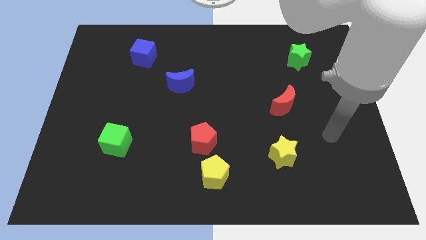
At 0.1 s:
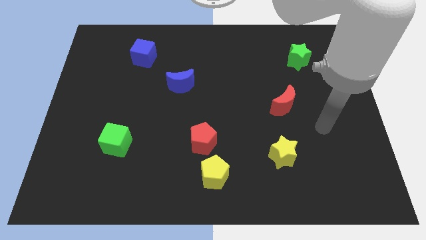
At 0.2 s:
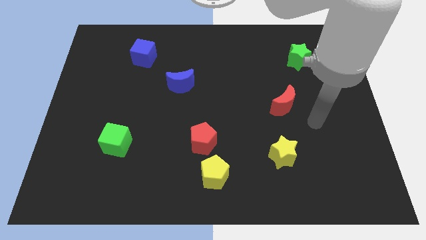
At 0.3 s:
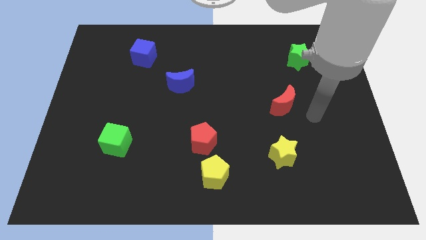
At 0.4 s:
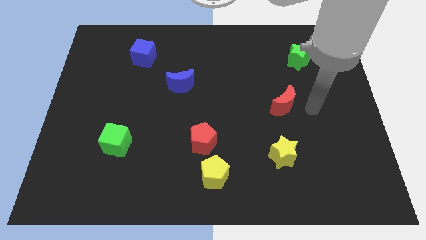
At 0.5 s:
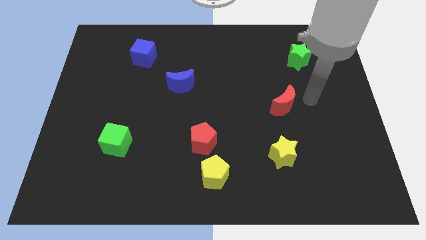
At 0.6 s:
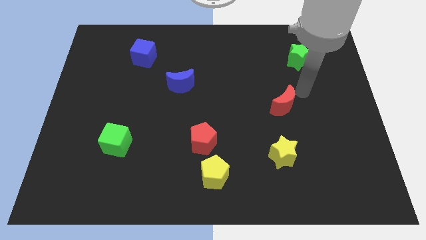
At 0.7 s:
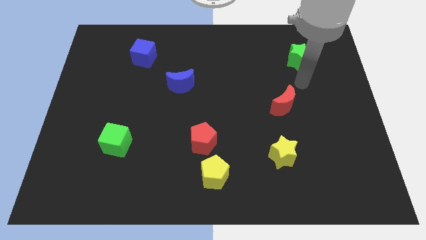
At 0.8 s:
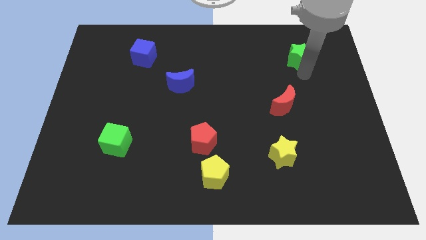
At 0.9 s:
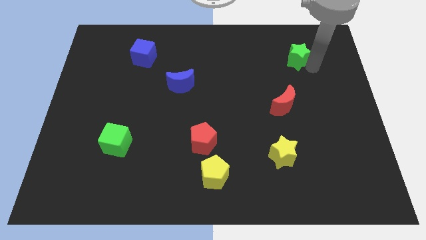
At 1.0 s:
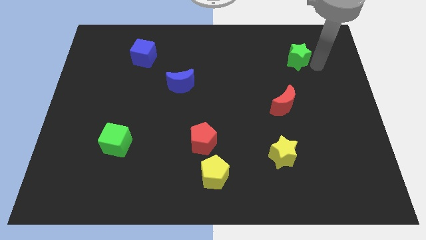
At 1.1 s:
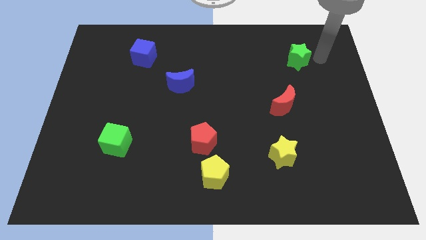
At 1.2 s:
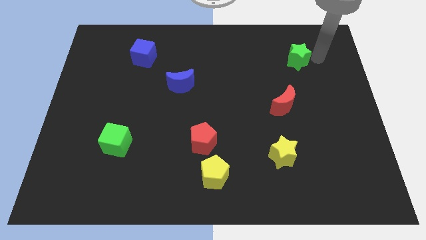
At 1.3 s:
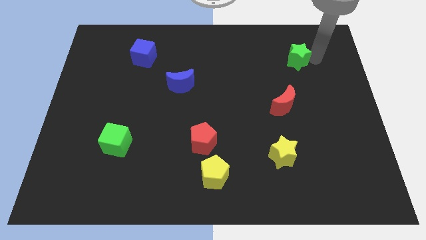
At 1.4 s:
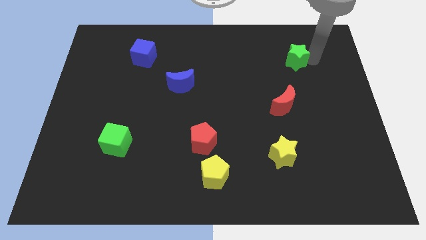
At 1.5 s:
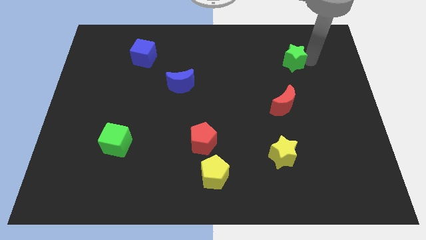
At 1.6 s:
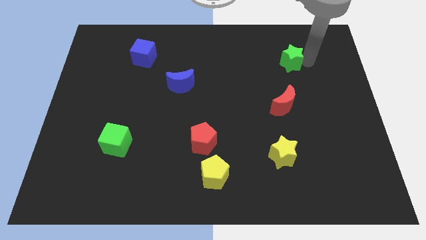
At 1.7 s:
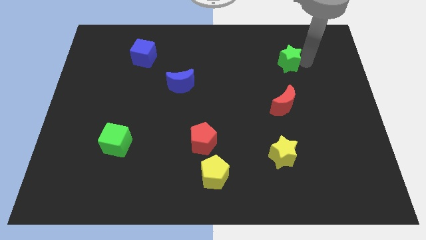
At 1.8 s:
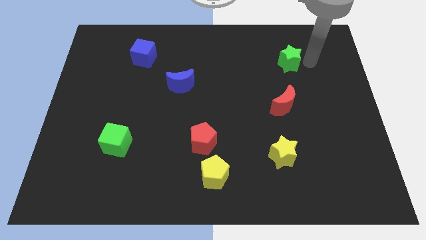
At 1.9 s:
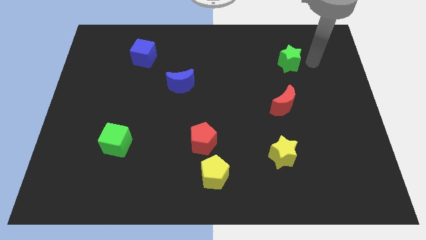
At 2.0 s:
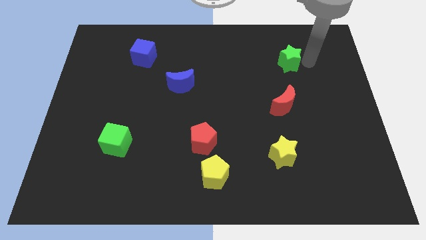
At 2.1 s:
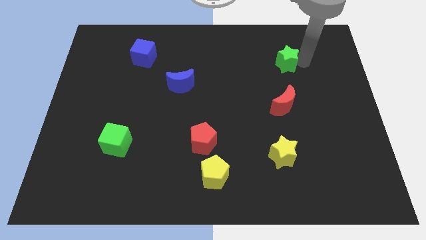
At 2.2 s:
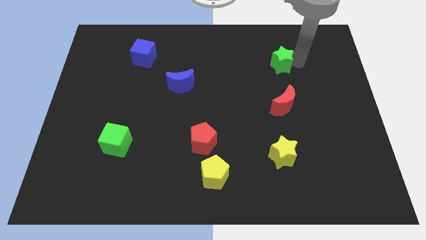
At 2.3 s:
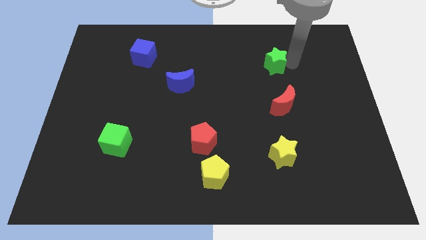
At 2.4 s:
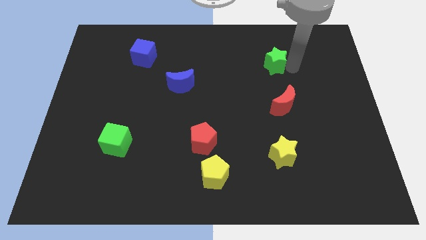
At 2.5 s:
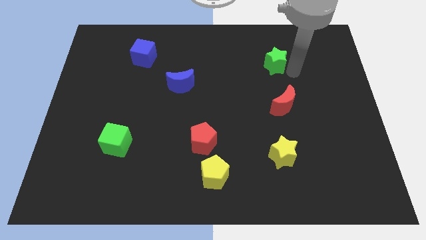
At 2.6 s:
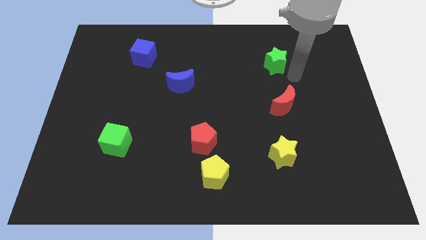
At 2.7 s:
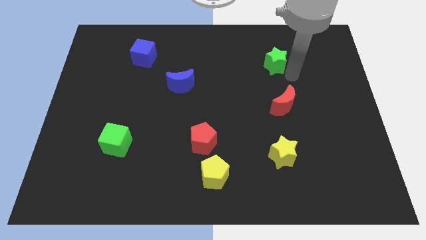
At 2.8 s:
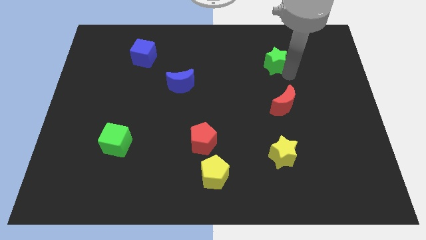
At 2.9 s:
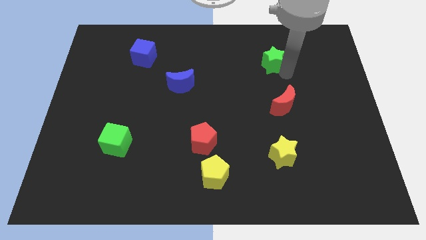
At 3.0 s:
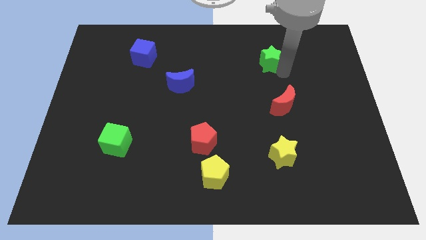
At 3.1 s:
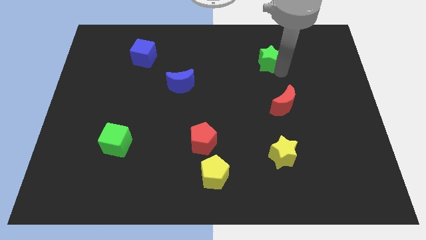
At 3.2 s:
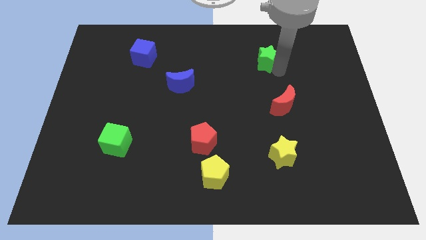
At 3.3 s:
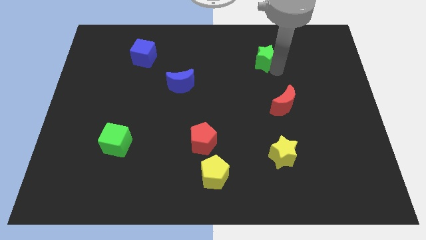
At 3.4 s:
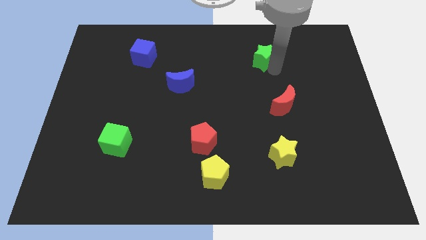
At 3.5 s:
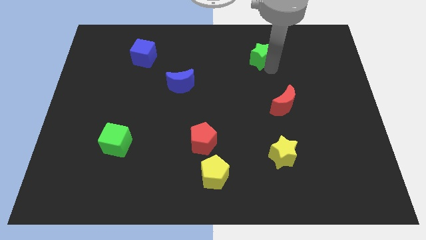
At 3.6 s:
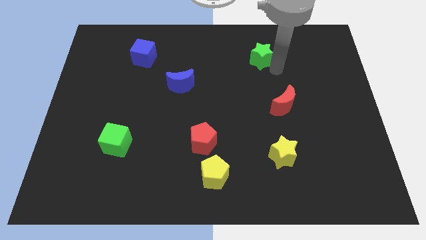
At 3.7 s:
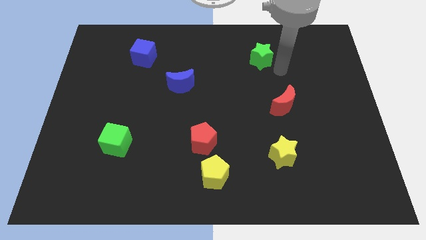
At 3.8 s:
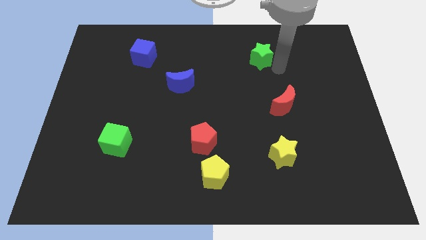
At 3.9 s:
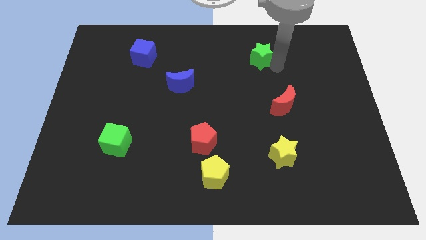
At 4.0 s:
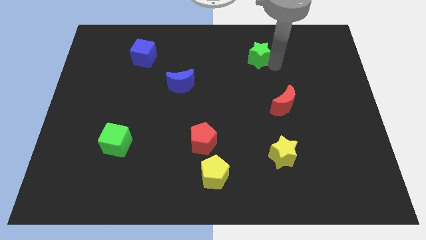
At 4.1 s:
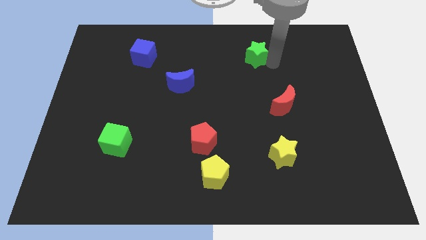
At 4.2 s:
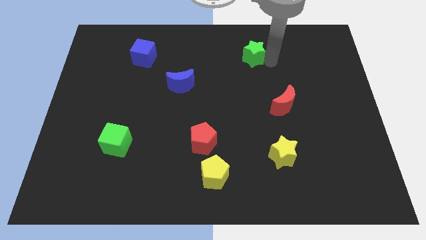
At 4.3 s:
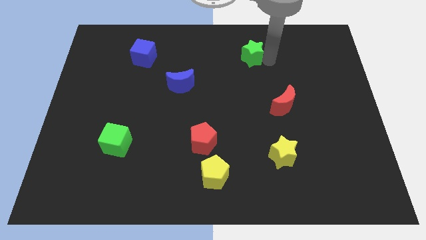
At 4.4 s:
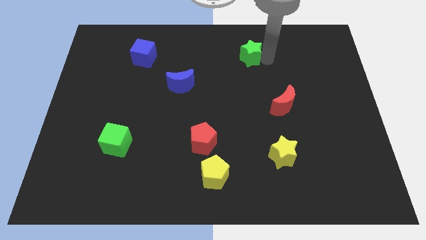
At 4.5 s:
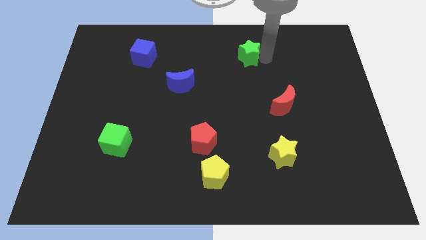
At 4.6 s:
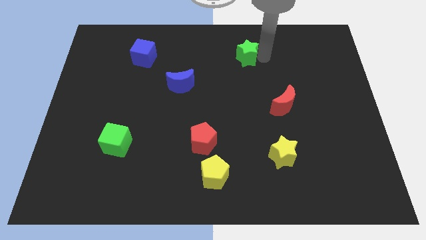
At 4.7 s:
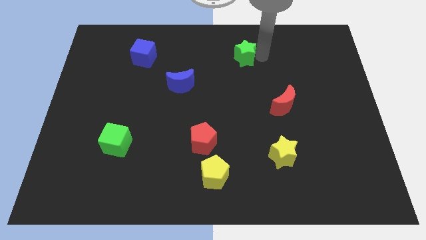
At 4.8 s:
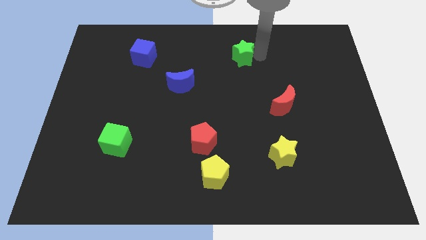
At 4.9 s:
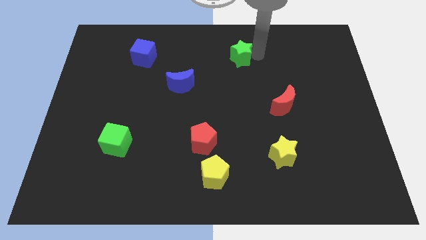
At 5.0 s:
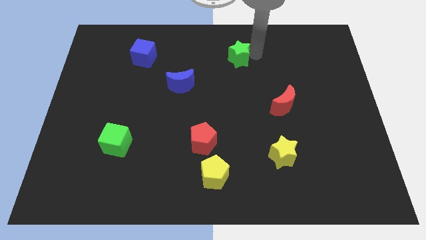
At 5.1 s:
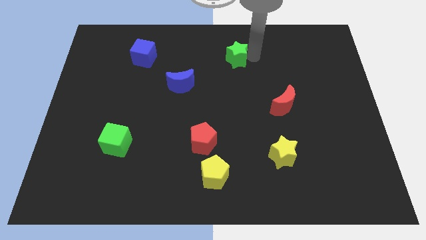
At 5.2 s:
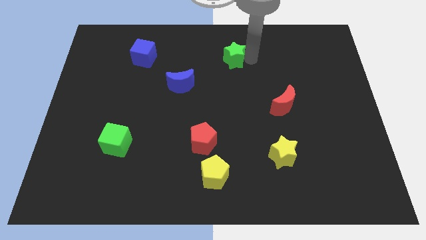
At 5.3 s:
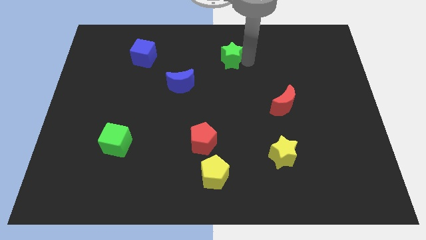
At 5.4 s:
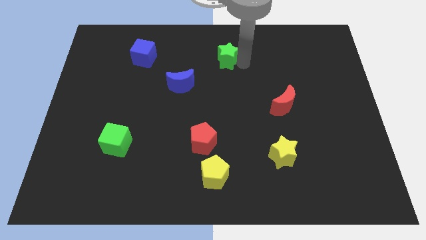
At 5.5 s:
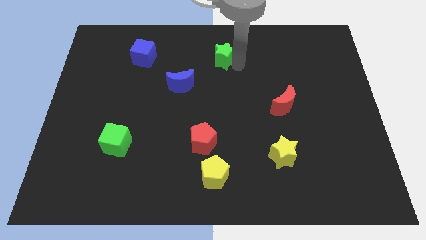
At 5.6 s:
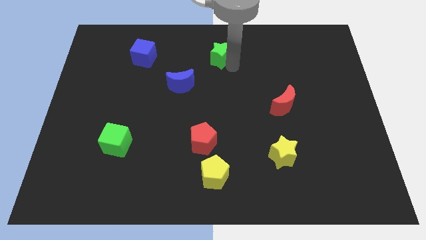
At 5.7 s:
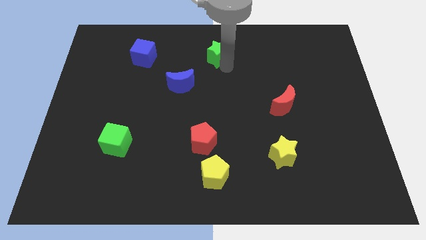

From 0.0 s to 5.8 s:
move the green star to the towards your base

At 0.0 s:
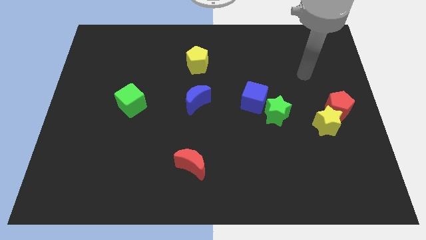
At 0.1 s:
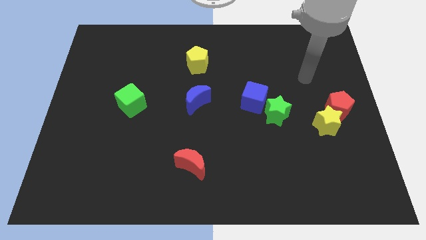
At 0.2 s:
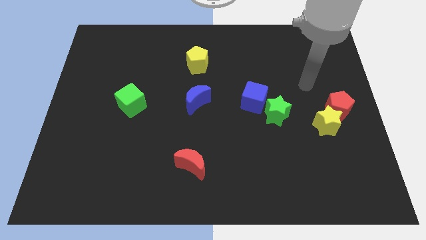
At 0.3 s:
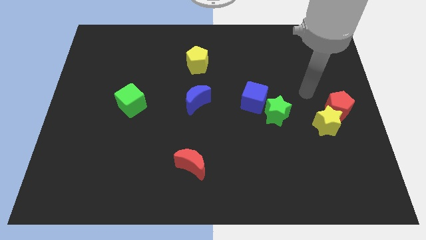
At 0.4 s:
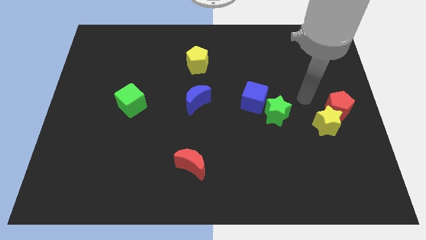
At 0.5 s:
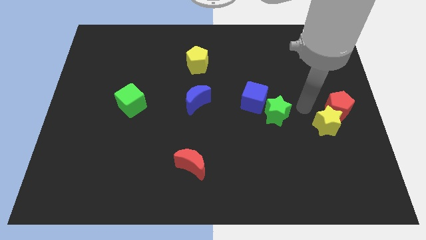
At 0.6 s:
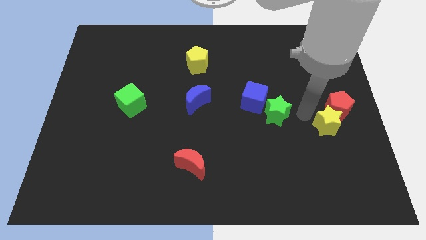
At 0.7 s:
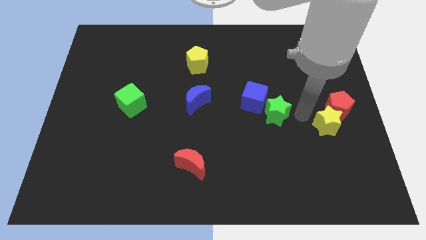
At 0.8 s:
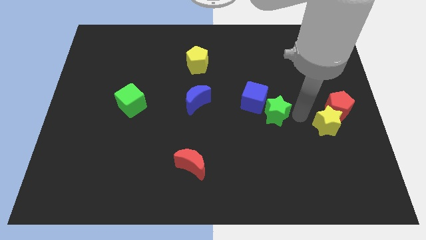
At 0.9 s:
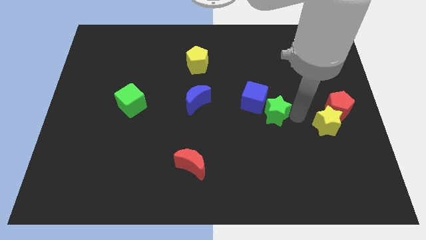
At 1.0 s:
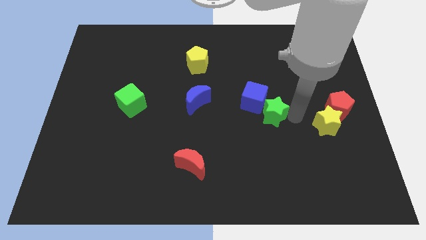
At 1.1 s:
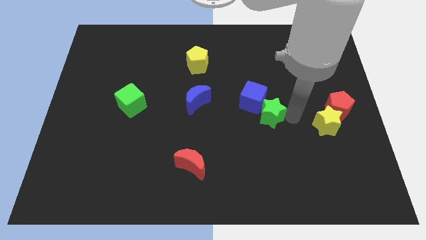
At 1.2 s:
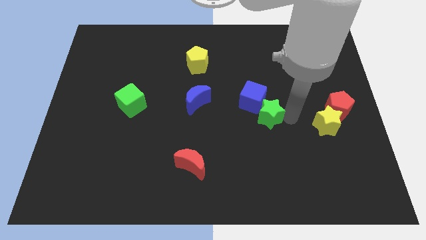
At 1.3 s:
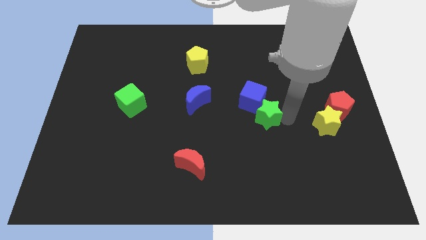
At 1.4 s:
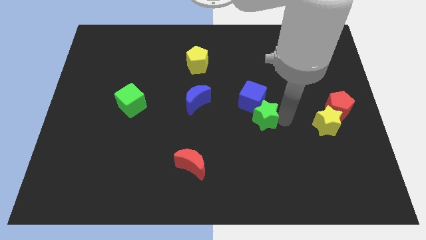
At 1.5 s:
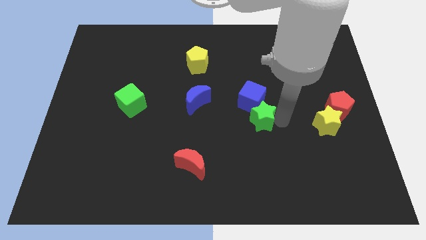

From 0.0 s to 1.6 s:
push the green star to the middle of the board
